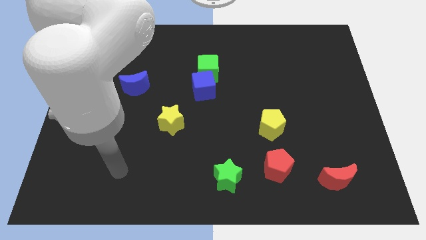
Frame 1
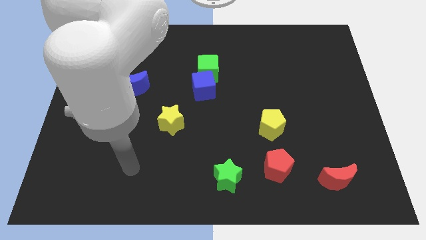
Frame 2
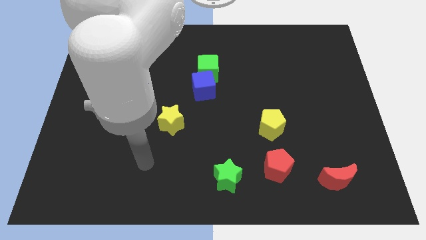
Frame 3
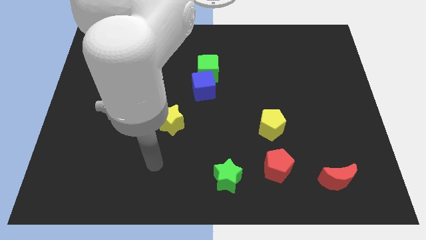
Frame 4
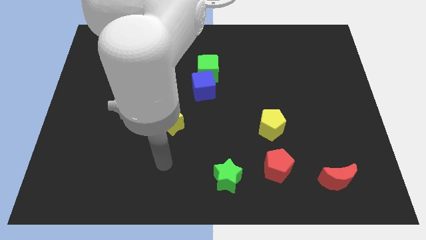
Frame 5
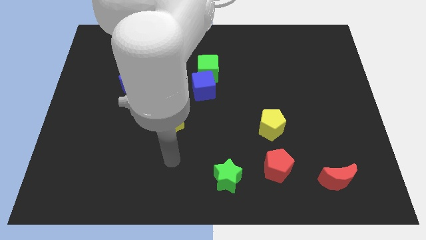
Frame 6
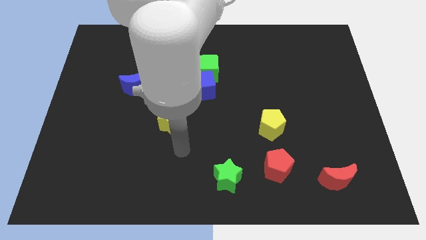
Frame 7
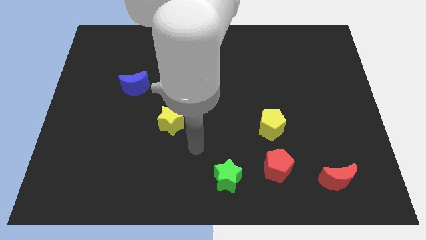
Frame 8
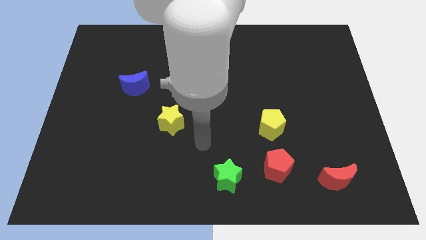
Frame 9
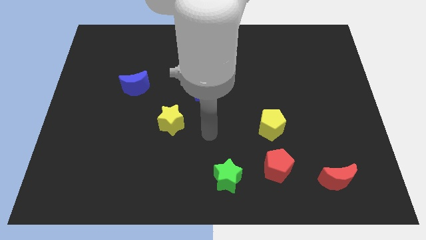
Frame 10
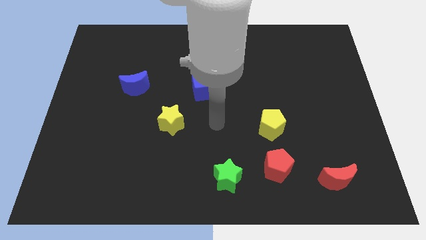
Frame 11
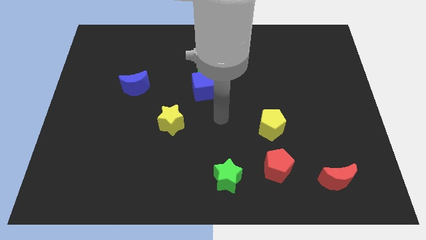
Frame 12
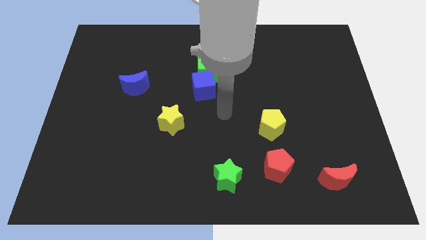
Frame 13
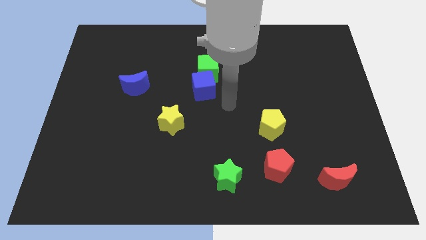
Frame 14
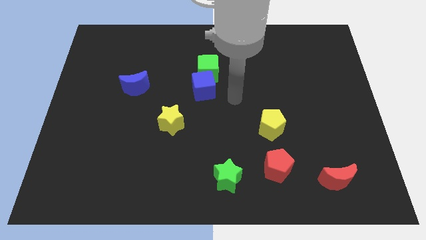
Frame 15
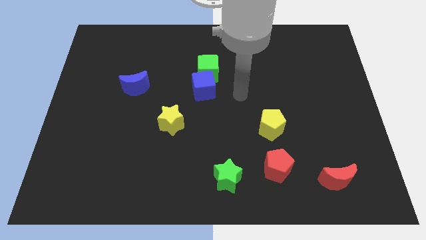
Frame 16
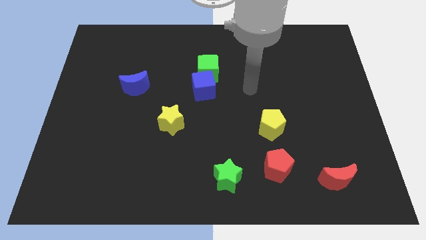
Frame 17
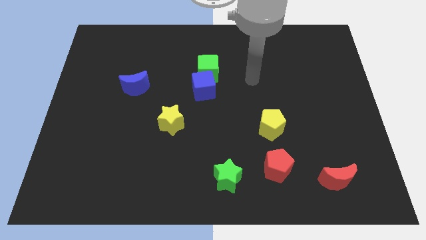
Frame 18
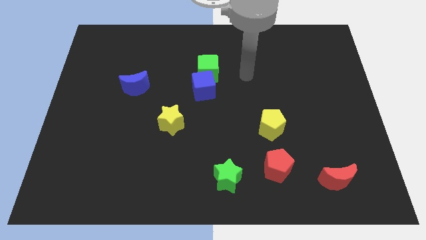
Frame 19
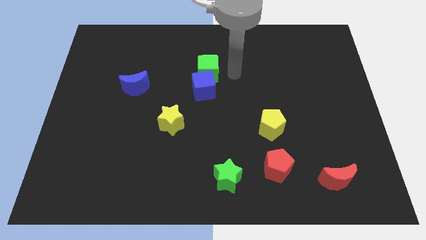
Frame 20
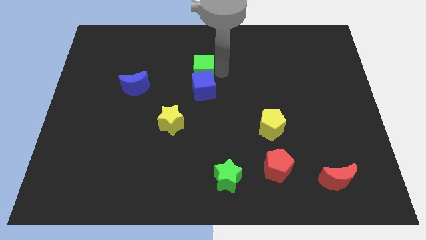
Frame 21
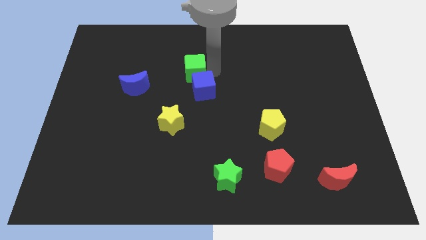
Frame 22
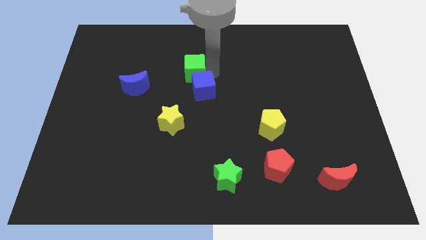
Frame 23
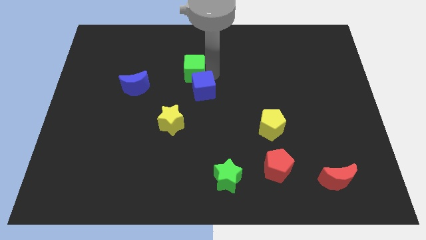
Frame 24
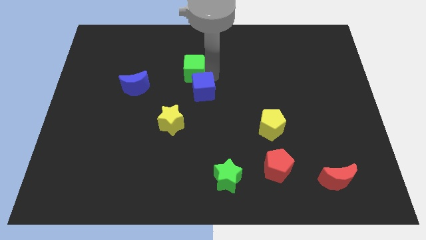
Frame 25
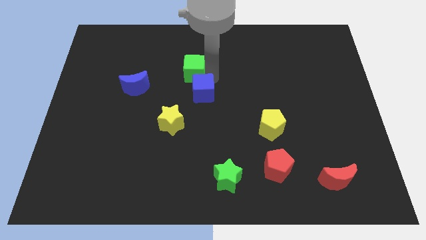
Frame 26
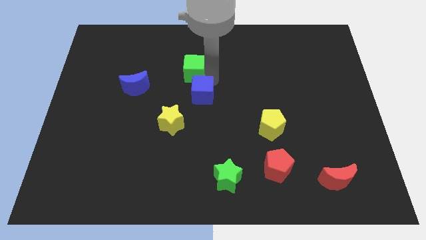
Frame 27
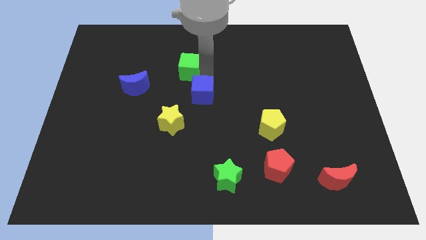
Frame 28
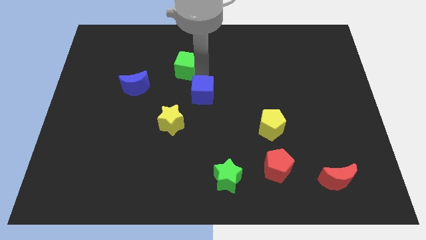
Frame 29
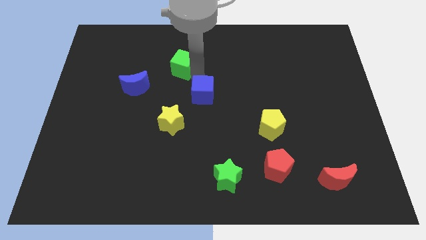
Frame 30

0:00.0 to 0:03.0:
pull the blue cube apart from the green cube

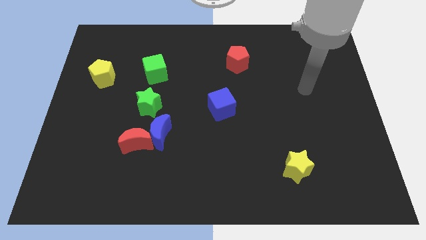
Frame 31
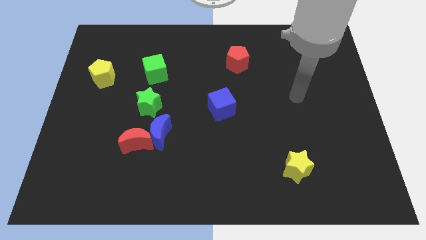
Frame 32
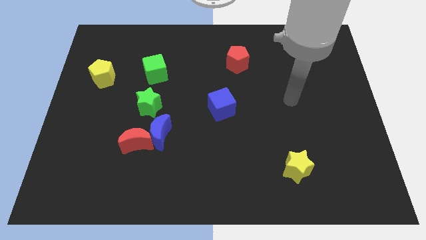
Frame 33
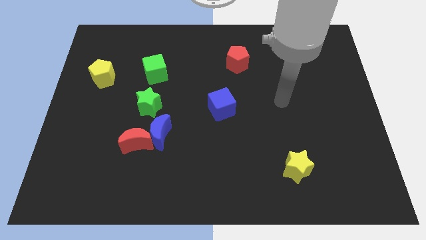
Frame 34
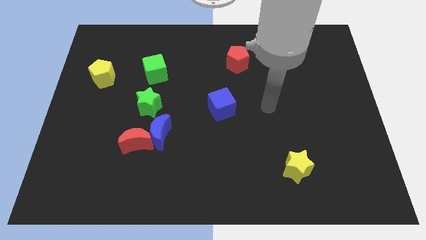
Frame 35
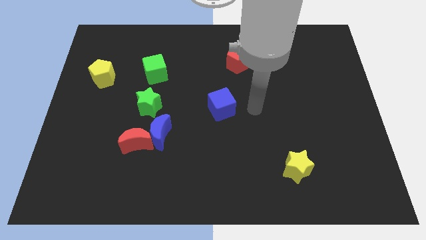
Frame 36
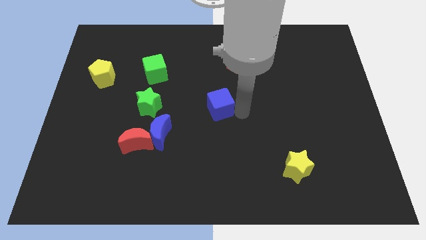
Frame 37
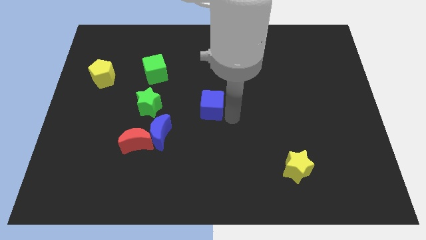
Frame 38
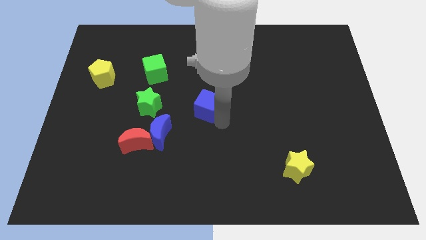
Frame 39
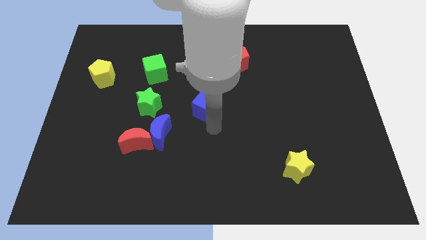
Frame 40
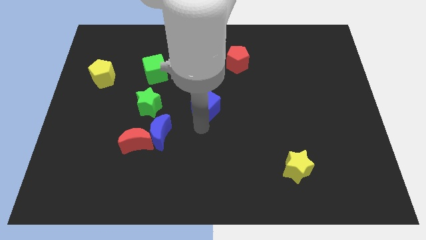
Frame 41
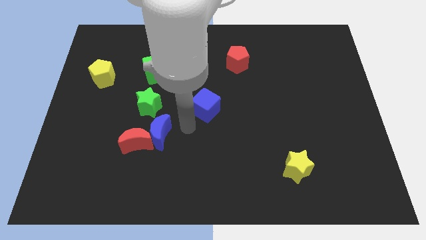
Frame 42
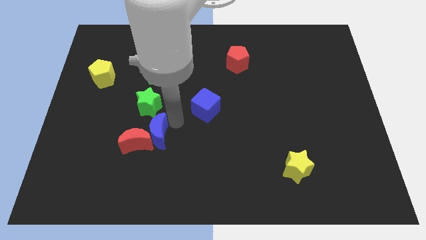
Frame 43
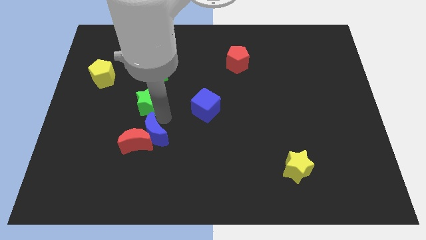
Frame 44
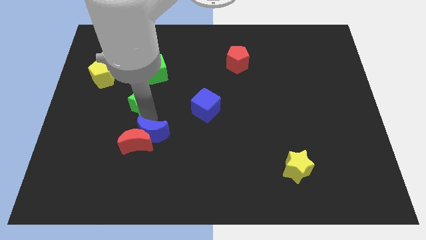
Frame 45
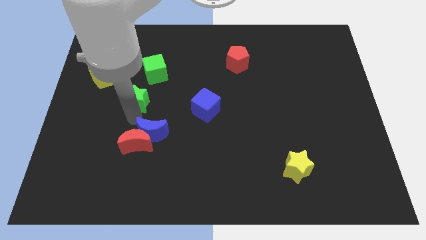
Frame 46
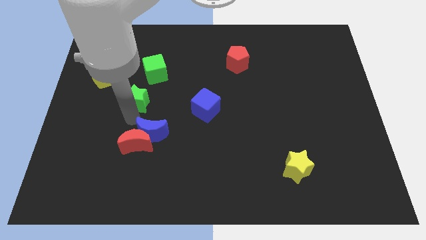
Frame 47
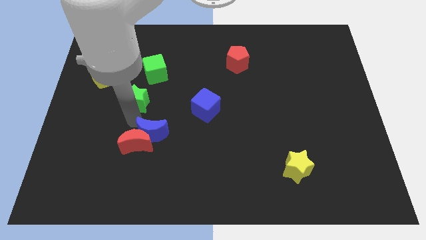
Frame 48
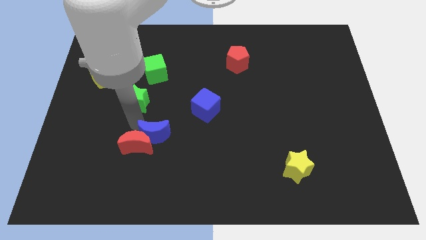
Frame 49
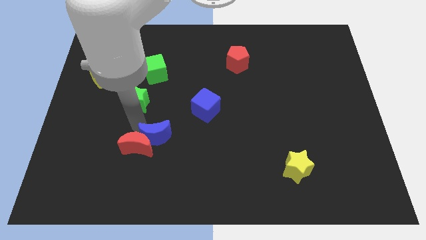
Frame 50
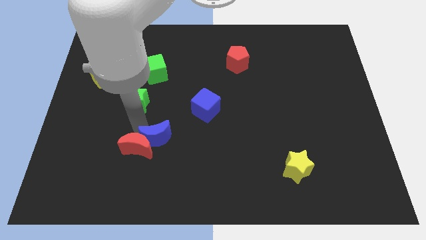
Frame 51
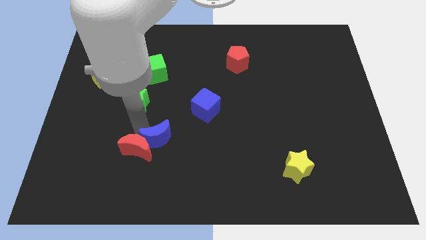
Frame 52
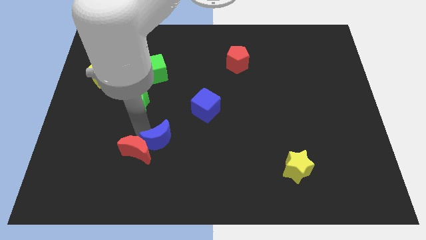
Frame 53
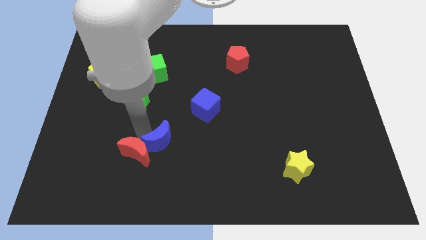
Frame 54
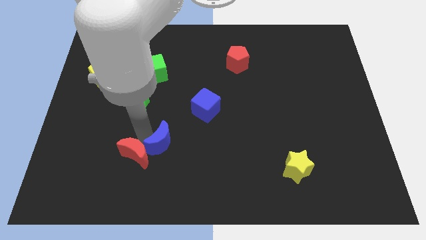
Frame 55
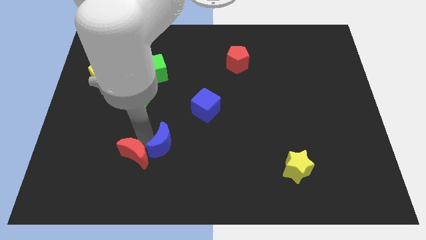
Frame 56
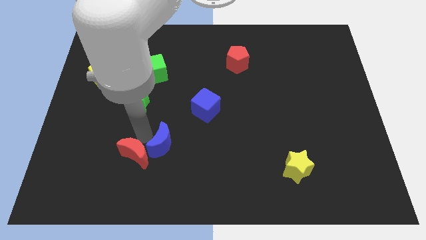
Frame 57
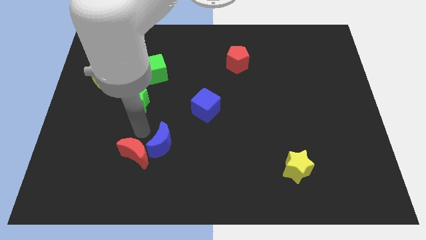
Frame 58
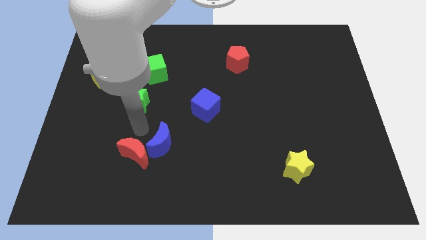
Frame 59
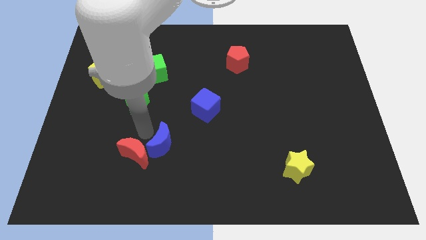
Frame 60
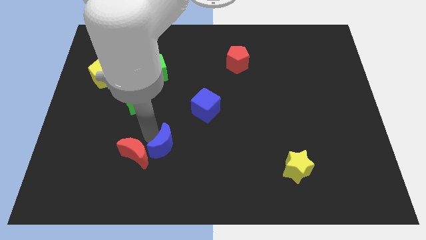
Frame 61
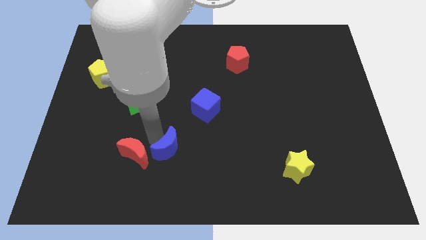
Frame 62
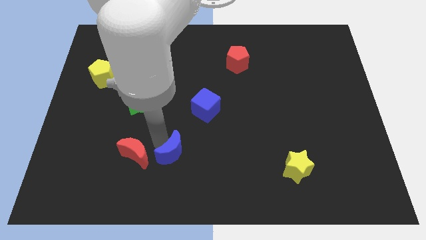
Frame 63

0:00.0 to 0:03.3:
separate the blue moon from the red moon and green star

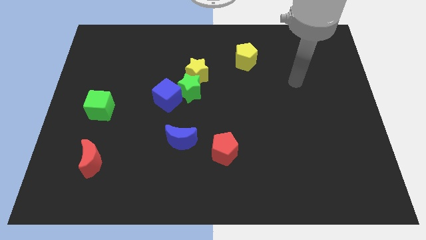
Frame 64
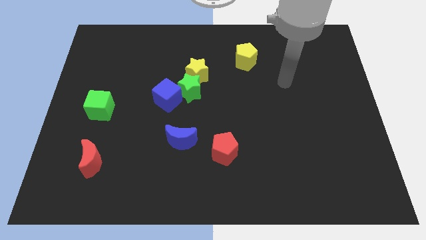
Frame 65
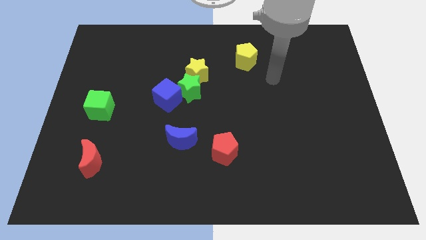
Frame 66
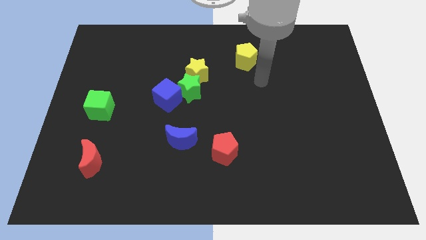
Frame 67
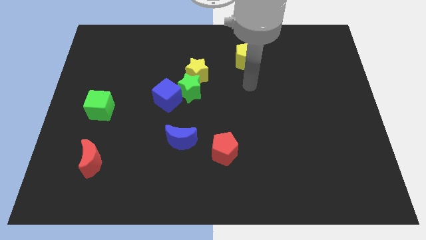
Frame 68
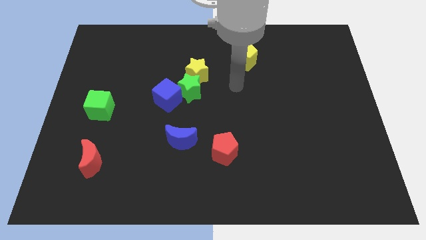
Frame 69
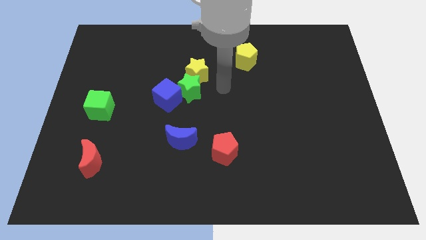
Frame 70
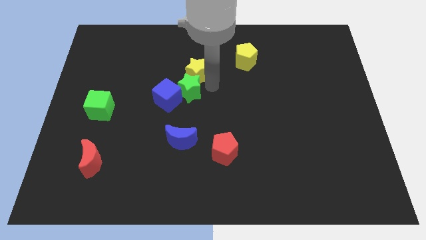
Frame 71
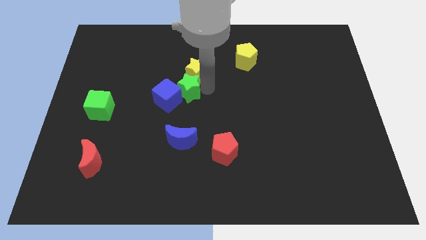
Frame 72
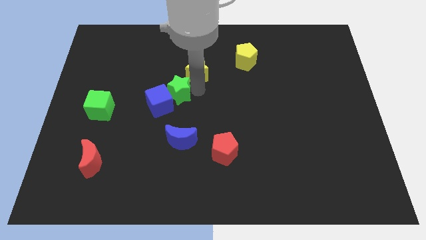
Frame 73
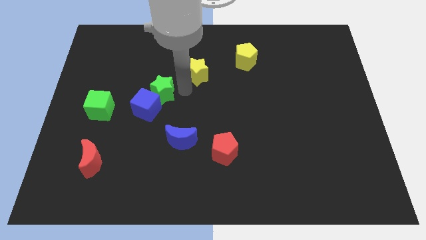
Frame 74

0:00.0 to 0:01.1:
separate the yellow star from the green star

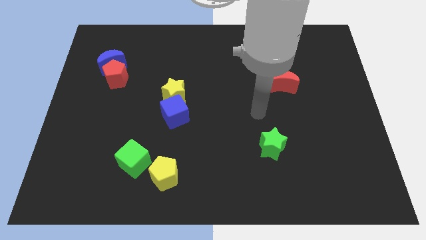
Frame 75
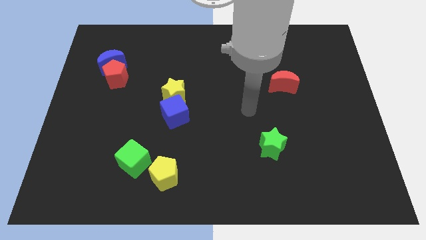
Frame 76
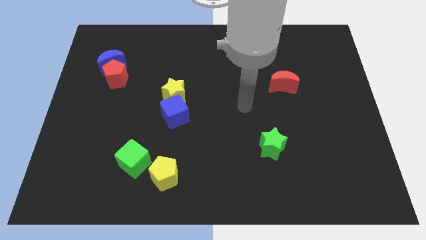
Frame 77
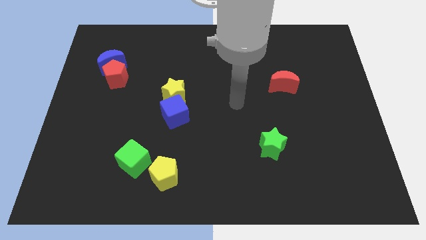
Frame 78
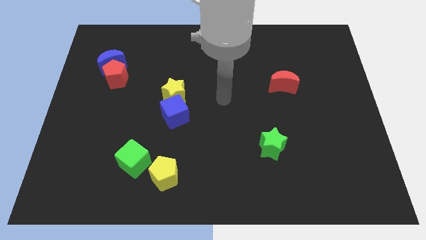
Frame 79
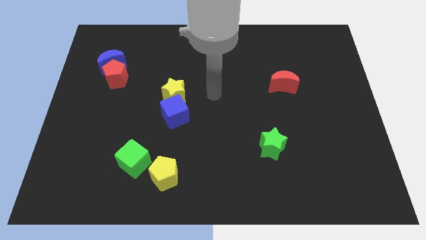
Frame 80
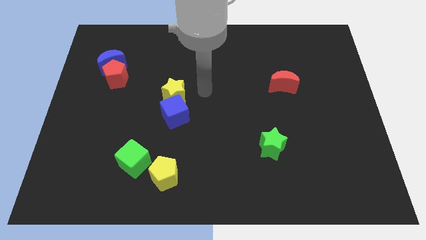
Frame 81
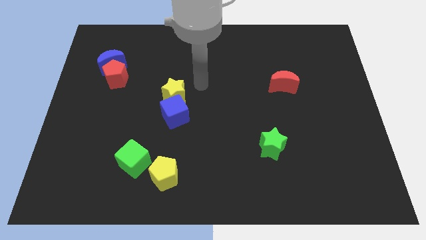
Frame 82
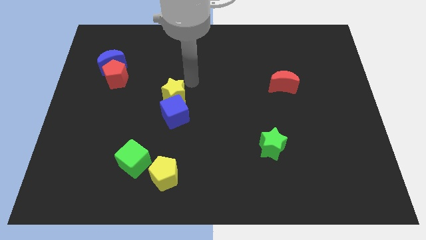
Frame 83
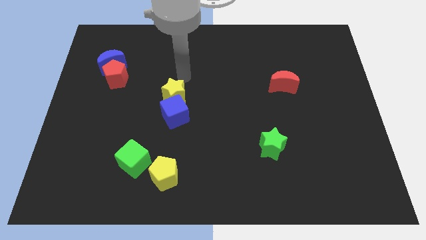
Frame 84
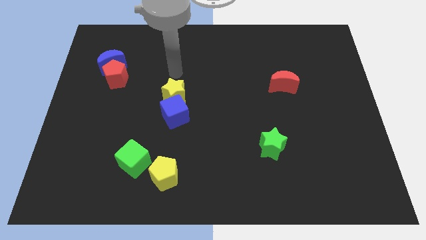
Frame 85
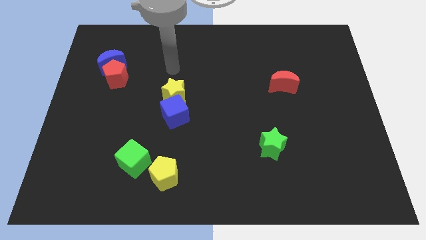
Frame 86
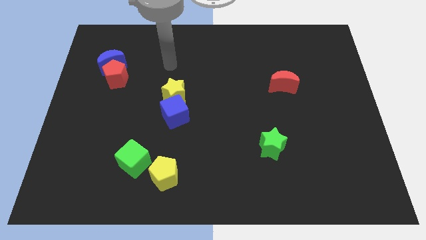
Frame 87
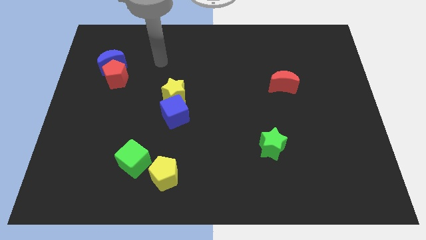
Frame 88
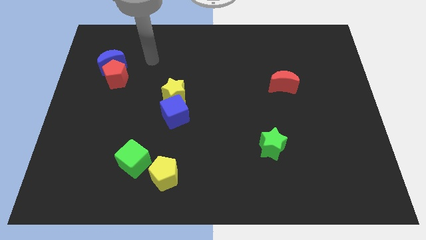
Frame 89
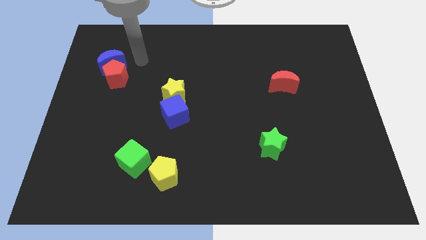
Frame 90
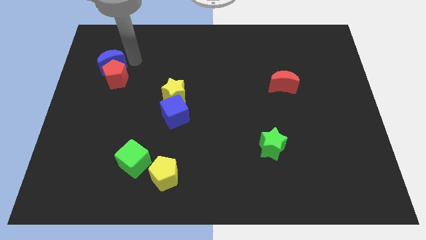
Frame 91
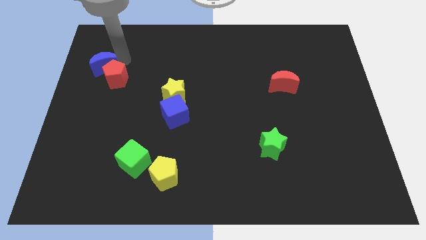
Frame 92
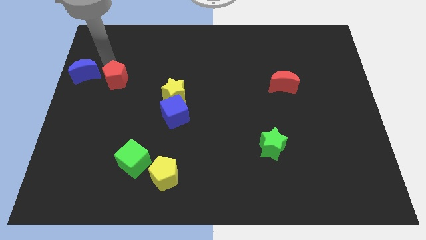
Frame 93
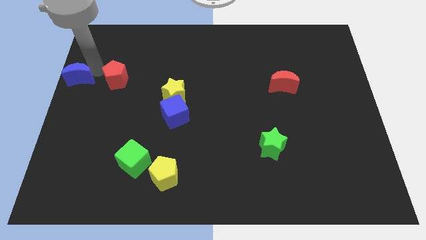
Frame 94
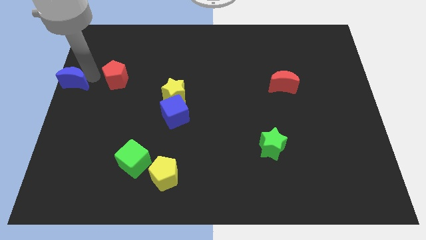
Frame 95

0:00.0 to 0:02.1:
pull the red pentagon apart from the blue moon
